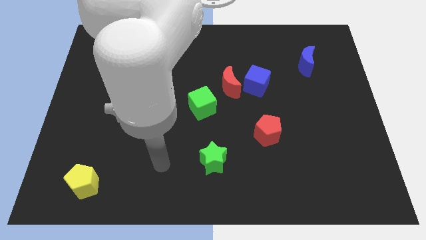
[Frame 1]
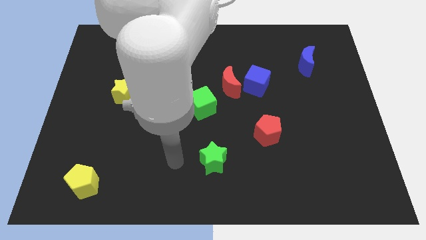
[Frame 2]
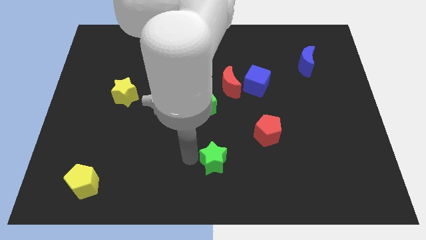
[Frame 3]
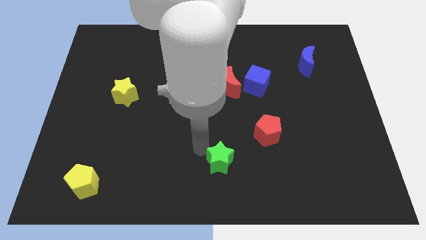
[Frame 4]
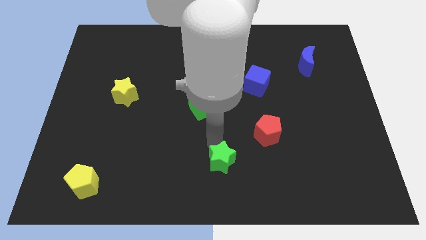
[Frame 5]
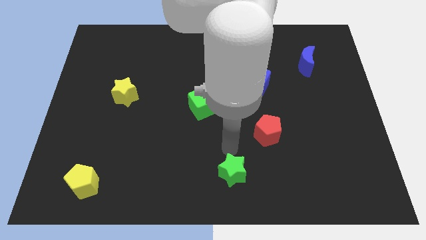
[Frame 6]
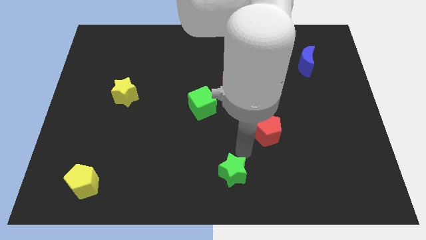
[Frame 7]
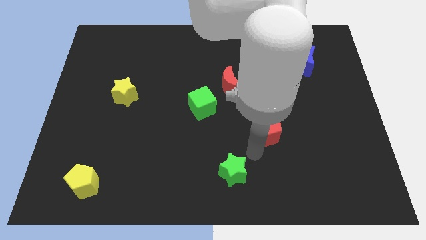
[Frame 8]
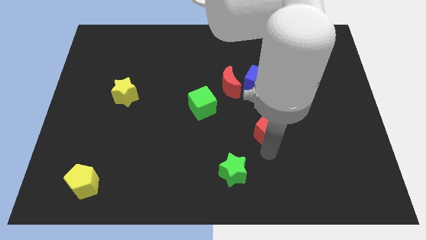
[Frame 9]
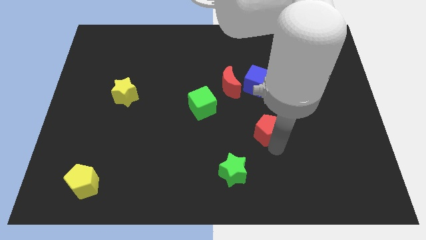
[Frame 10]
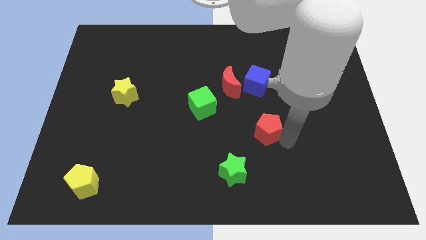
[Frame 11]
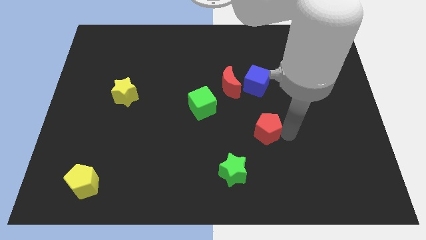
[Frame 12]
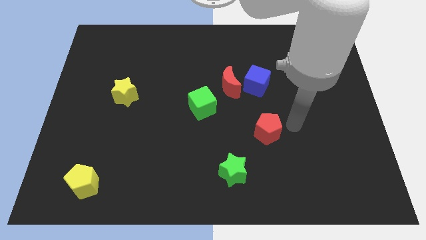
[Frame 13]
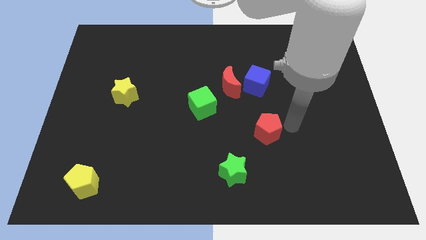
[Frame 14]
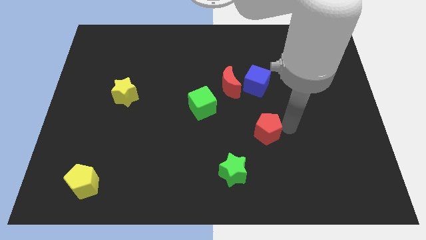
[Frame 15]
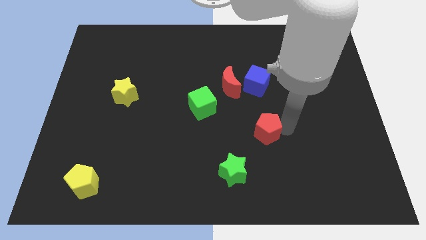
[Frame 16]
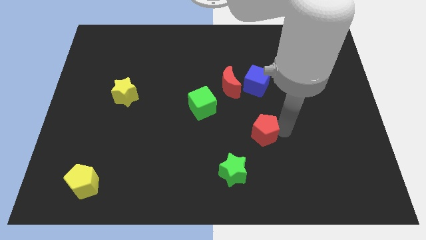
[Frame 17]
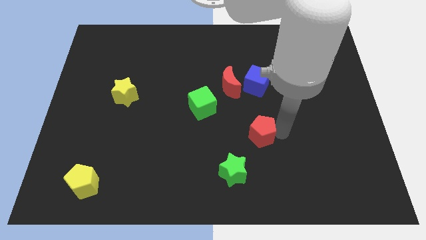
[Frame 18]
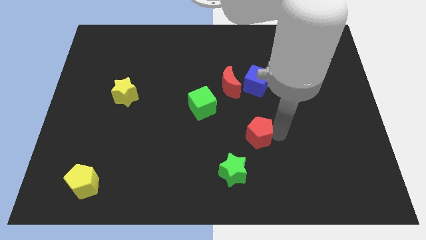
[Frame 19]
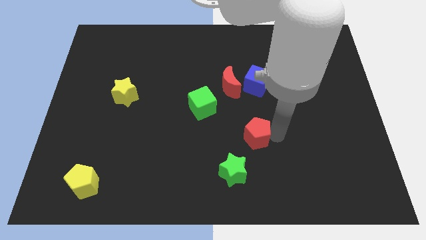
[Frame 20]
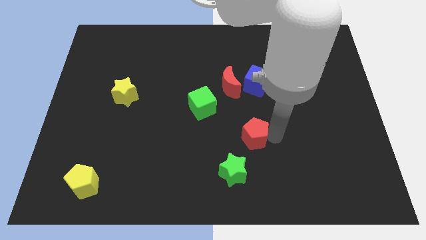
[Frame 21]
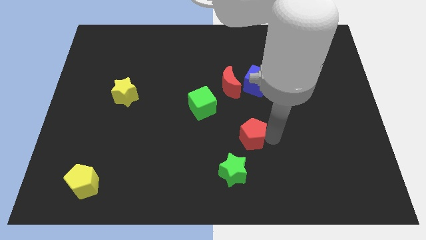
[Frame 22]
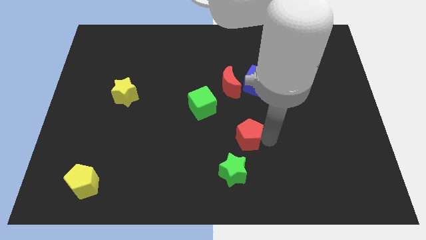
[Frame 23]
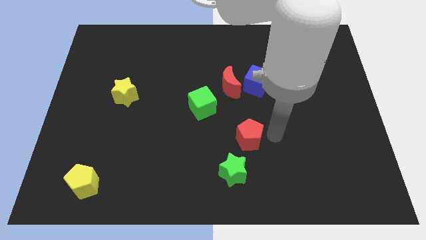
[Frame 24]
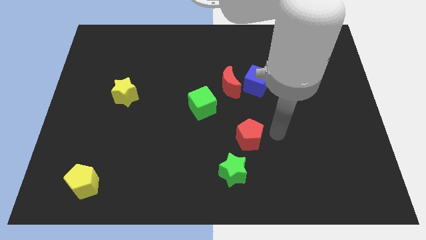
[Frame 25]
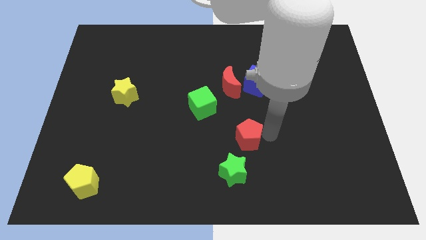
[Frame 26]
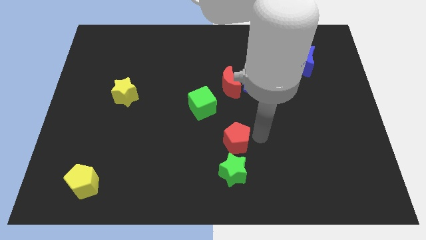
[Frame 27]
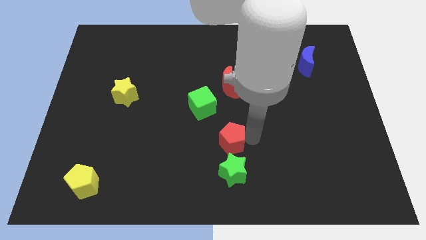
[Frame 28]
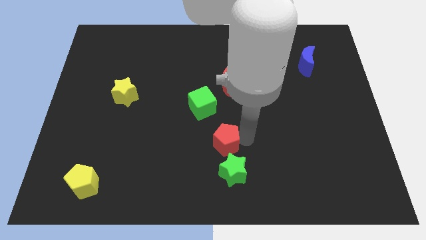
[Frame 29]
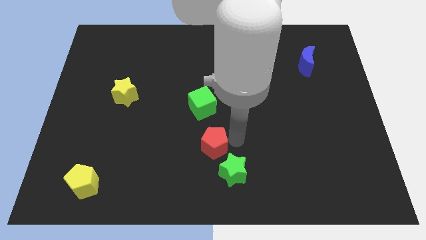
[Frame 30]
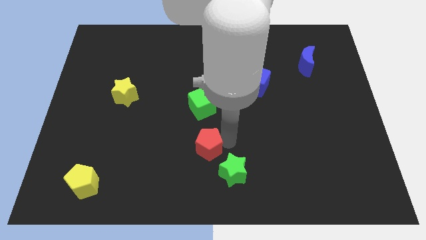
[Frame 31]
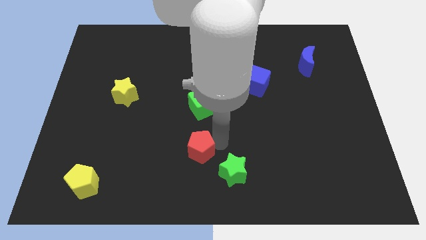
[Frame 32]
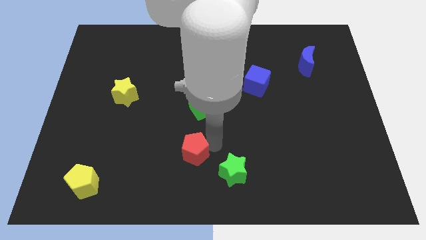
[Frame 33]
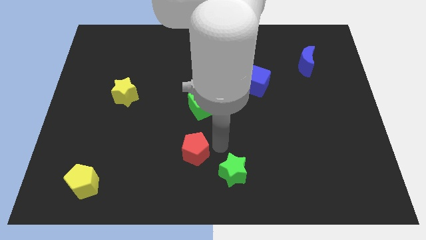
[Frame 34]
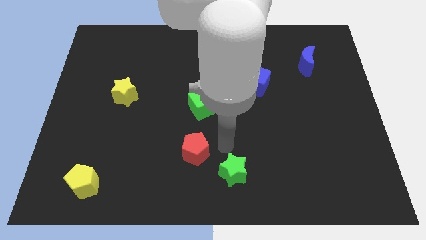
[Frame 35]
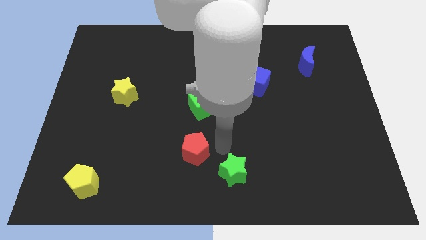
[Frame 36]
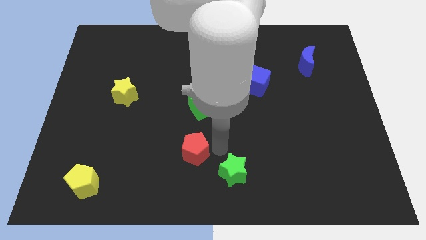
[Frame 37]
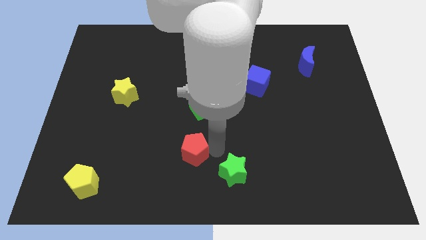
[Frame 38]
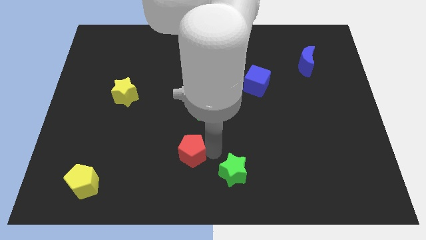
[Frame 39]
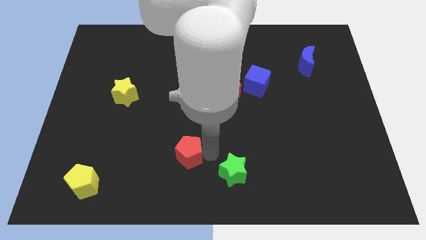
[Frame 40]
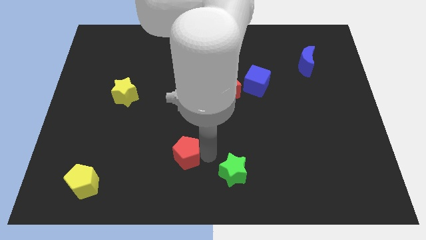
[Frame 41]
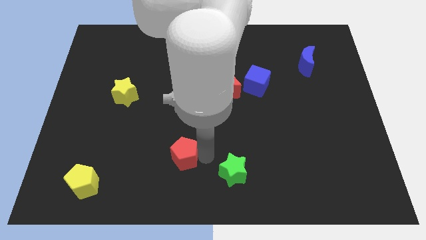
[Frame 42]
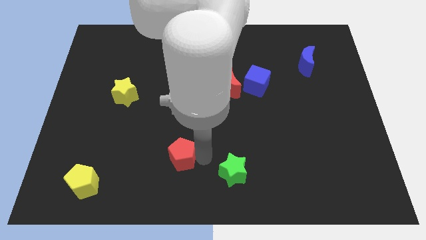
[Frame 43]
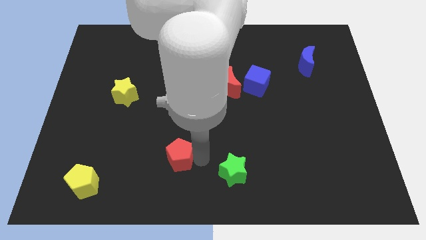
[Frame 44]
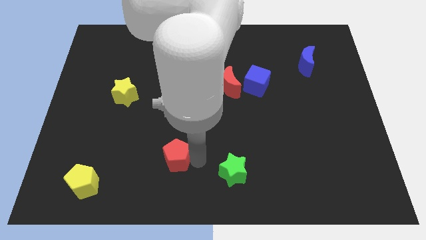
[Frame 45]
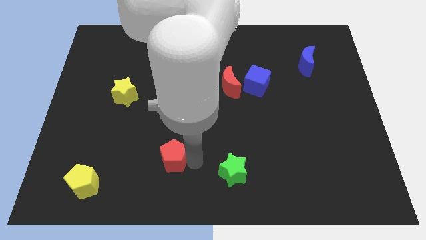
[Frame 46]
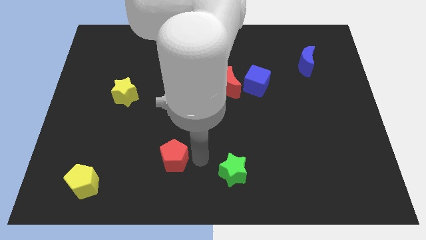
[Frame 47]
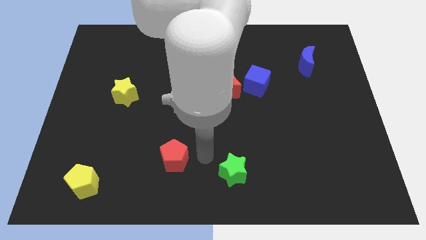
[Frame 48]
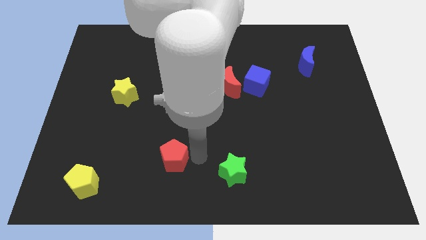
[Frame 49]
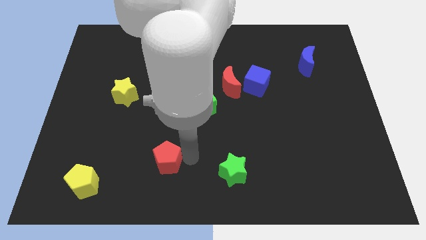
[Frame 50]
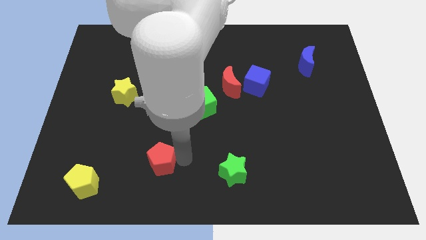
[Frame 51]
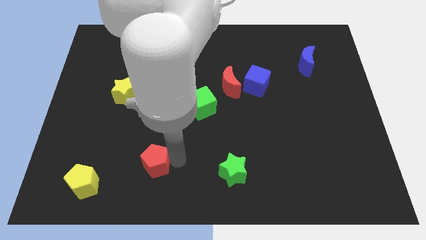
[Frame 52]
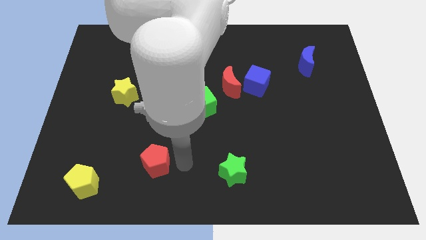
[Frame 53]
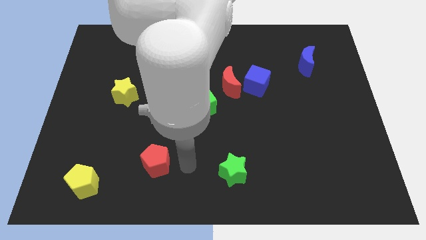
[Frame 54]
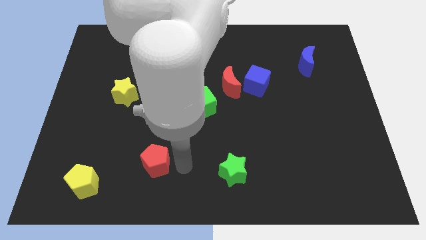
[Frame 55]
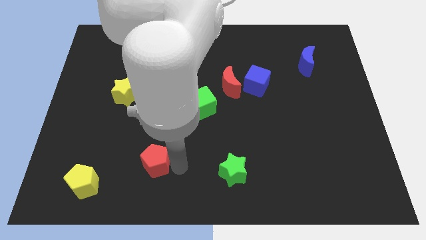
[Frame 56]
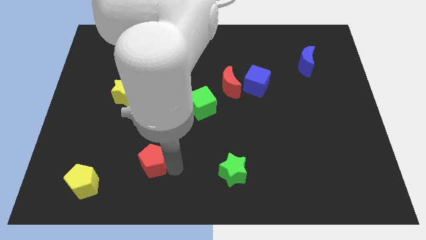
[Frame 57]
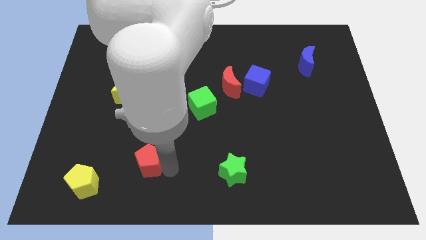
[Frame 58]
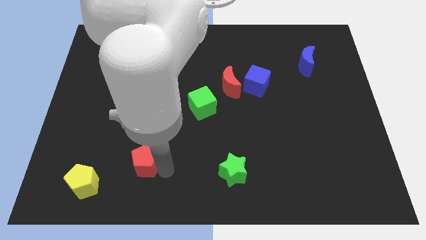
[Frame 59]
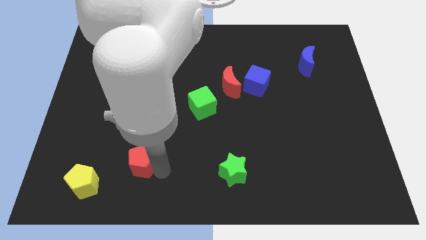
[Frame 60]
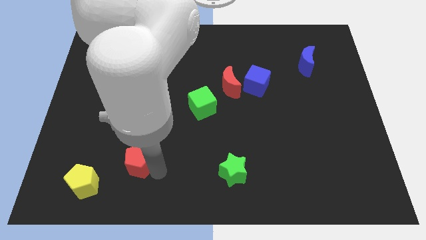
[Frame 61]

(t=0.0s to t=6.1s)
move the red pentagon diagonally up and to the right of the yellow pentagon

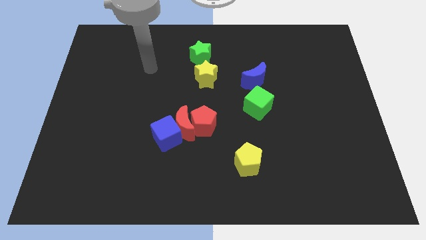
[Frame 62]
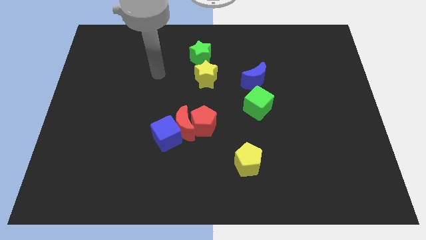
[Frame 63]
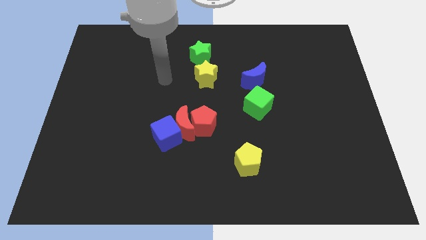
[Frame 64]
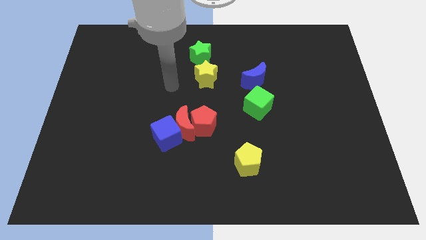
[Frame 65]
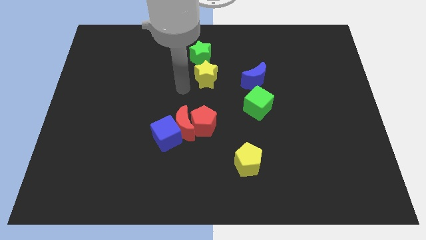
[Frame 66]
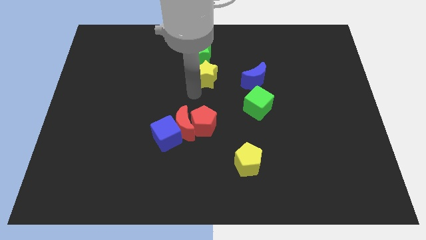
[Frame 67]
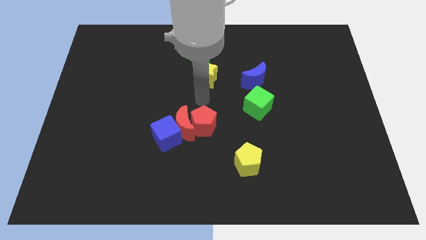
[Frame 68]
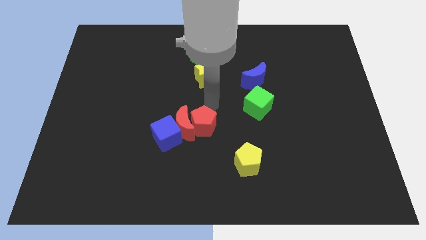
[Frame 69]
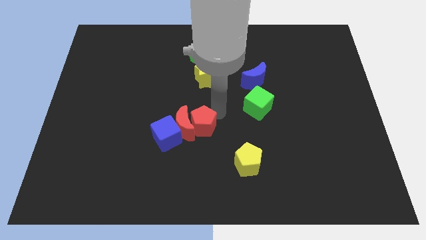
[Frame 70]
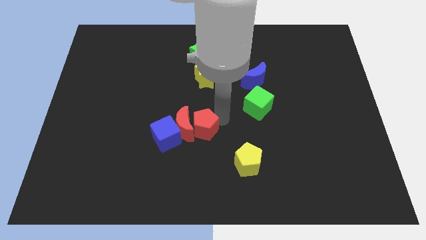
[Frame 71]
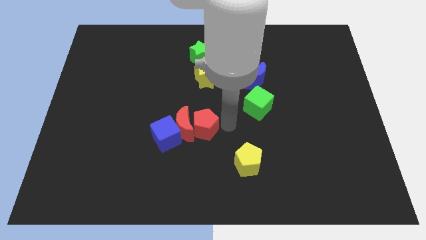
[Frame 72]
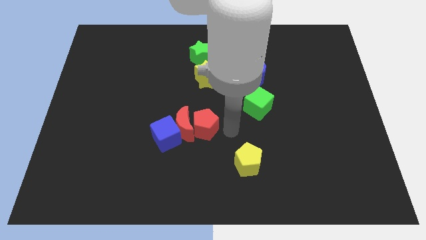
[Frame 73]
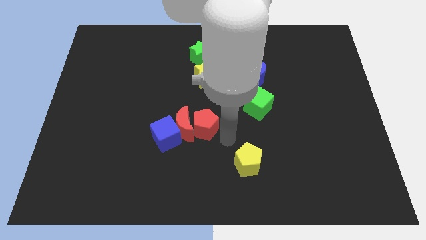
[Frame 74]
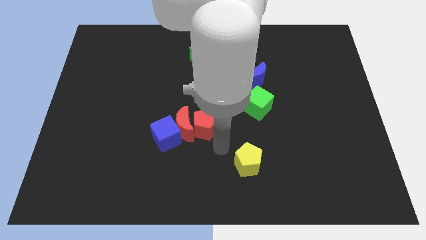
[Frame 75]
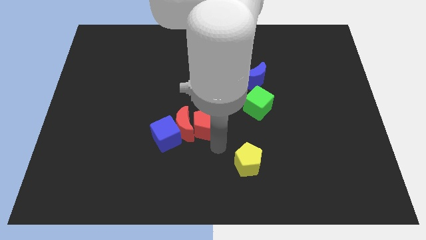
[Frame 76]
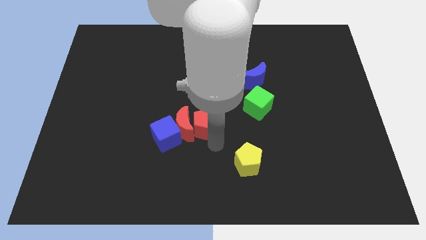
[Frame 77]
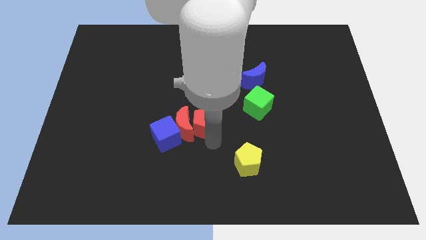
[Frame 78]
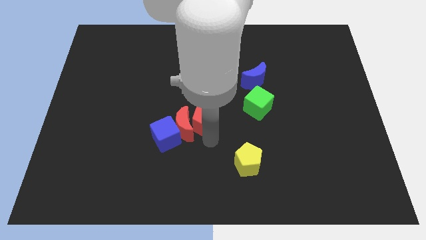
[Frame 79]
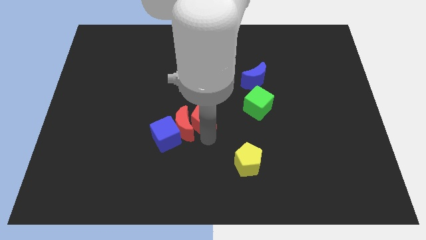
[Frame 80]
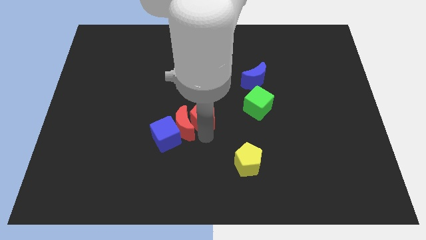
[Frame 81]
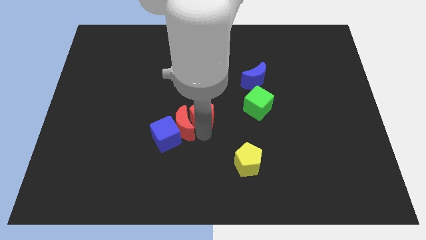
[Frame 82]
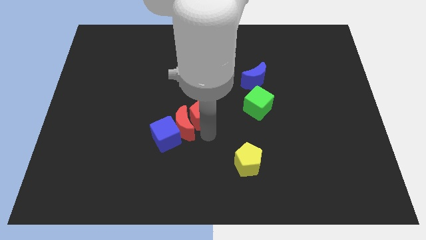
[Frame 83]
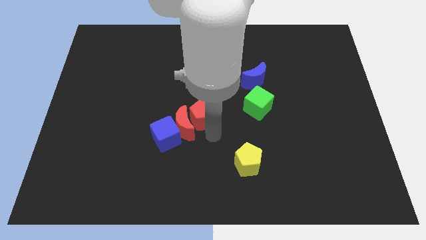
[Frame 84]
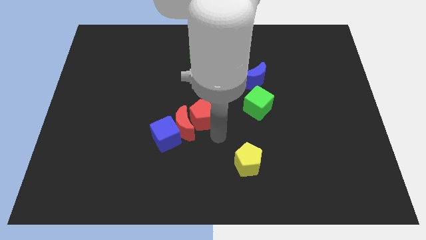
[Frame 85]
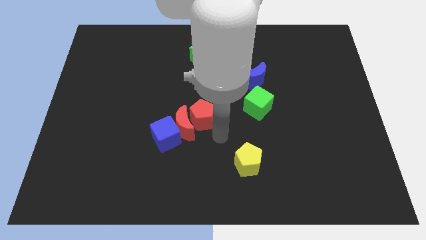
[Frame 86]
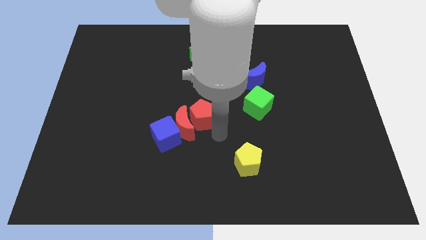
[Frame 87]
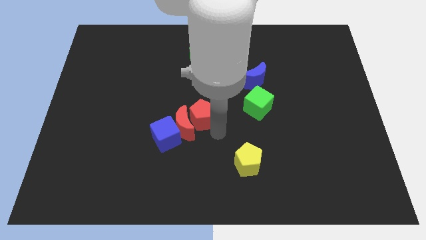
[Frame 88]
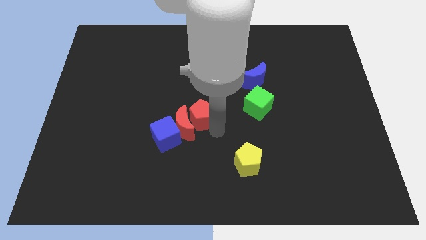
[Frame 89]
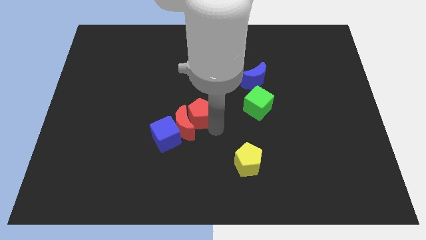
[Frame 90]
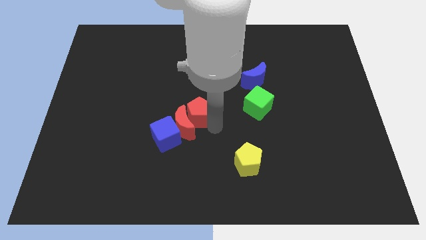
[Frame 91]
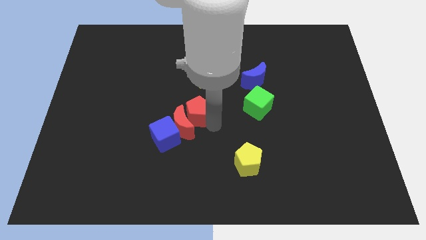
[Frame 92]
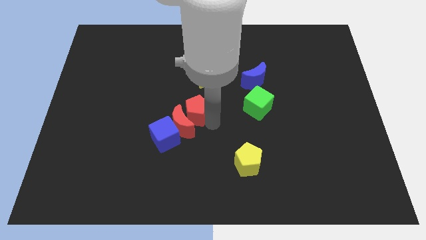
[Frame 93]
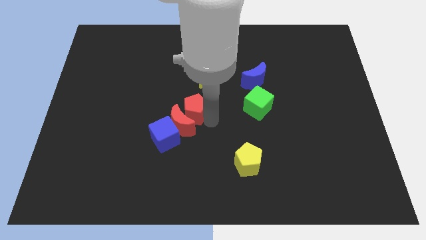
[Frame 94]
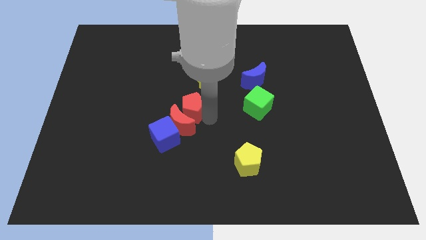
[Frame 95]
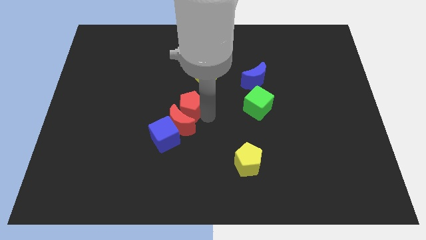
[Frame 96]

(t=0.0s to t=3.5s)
push the red pentagon to the bottom left side of the yellow star
